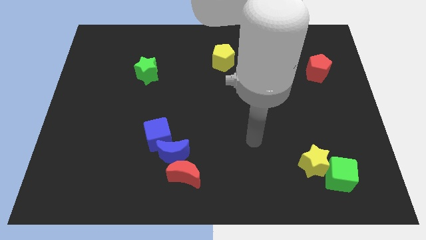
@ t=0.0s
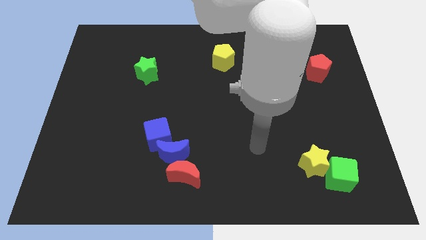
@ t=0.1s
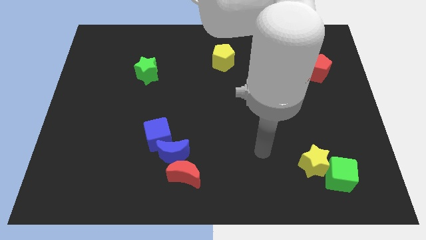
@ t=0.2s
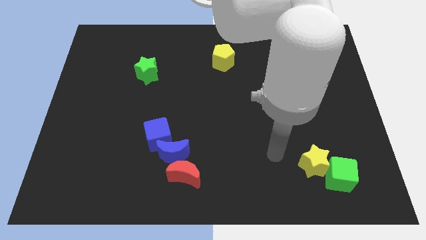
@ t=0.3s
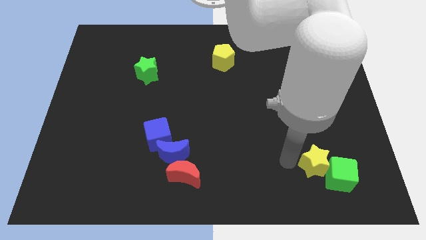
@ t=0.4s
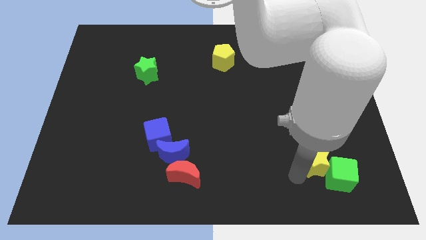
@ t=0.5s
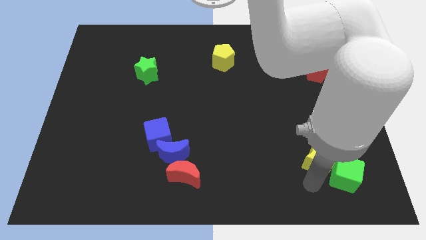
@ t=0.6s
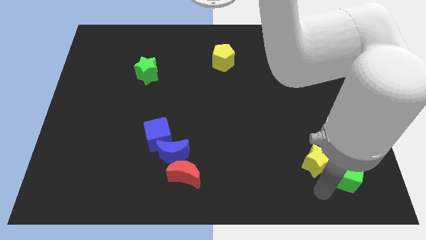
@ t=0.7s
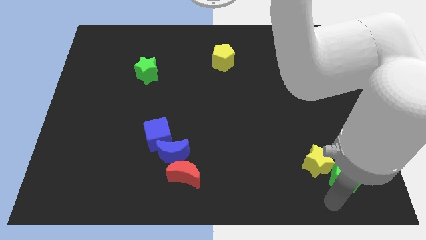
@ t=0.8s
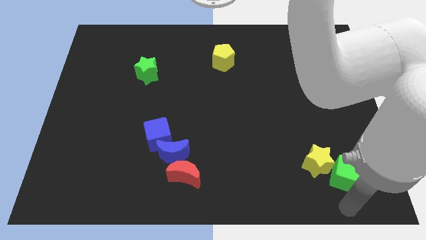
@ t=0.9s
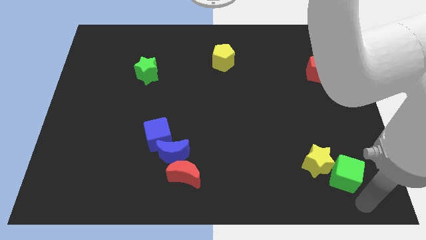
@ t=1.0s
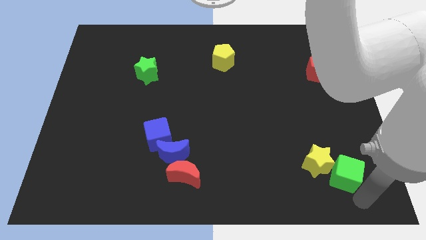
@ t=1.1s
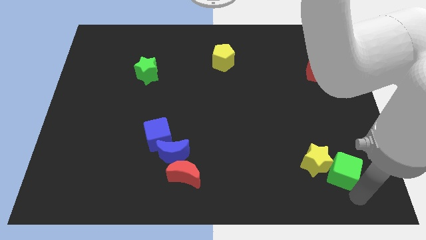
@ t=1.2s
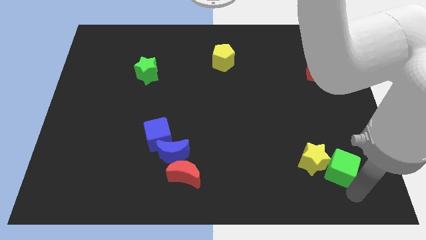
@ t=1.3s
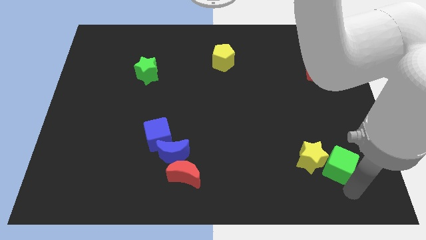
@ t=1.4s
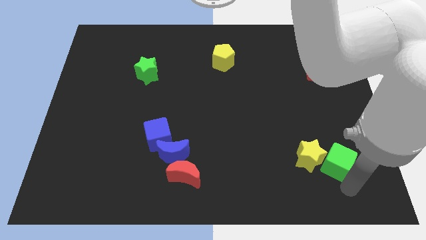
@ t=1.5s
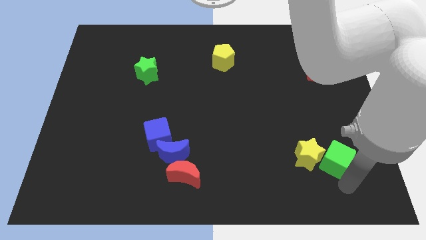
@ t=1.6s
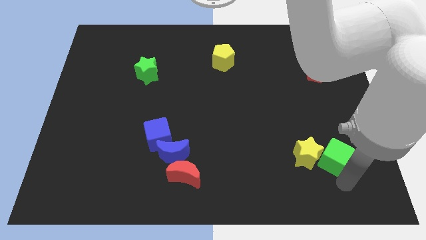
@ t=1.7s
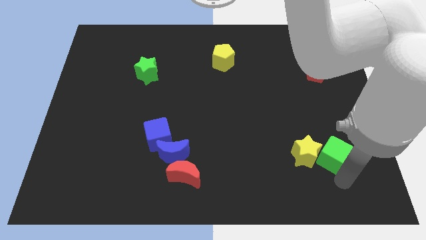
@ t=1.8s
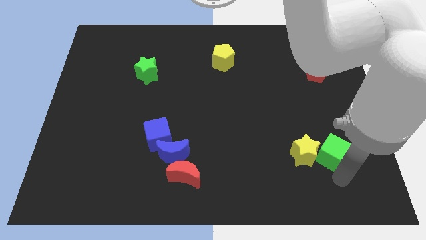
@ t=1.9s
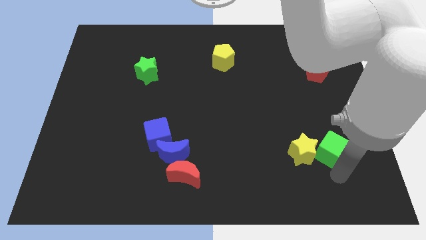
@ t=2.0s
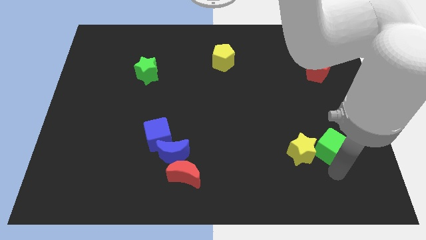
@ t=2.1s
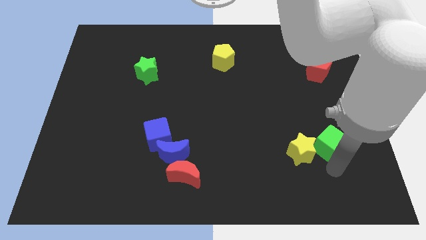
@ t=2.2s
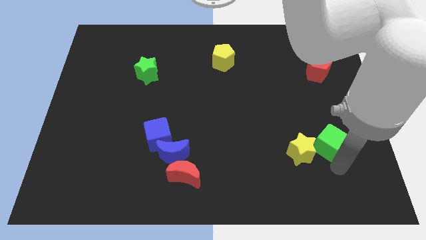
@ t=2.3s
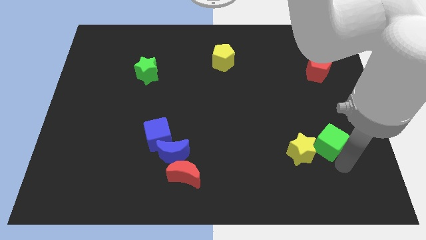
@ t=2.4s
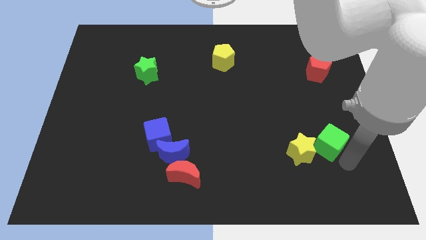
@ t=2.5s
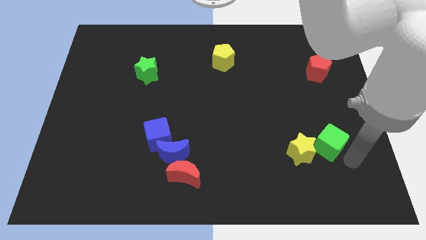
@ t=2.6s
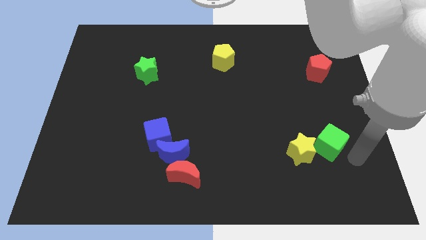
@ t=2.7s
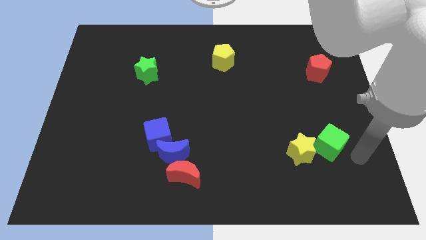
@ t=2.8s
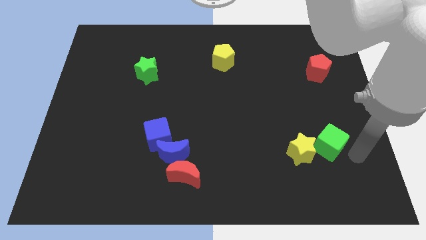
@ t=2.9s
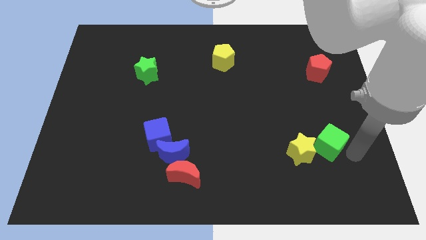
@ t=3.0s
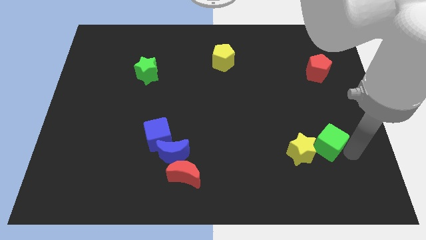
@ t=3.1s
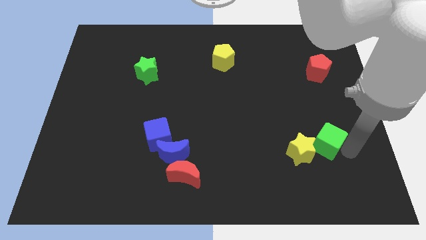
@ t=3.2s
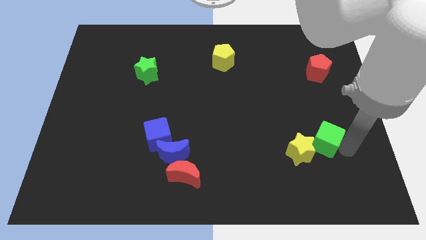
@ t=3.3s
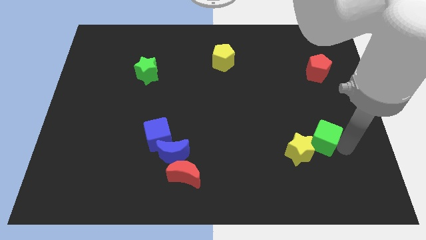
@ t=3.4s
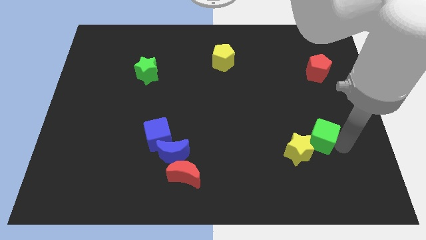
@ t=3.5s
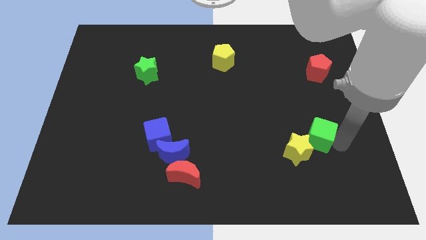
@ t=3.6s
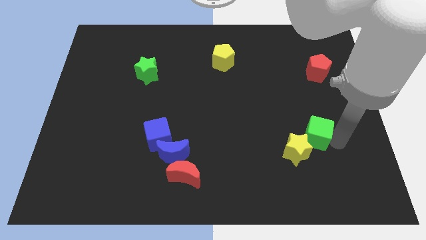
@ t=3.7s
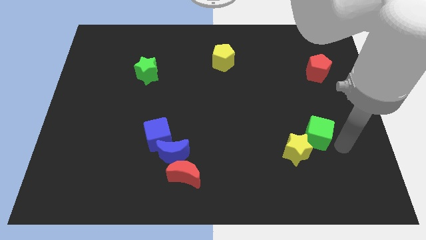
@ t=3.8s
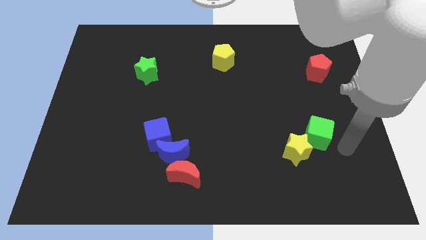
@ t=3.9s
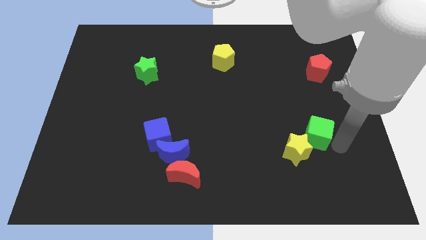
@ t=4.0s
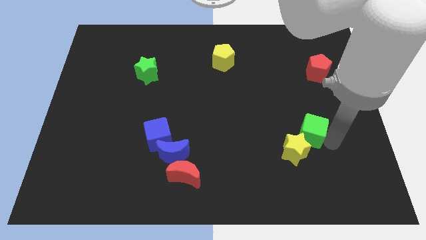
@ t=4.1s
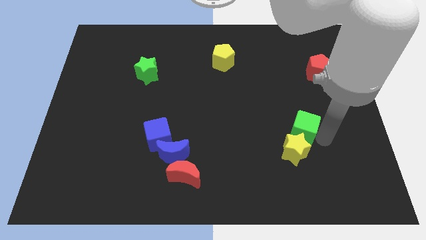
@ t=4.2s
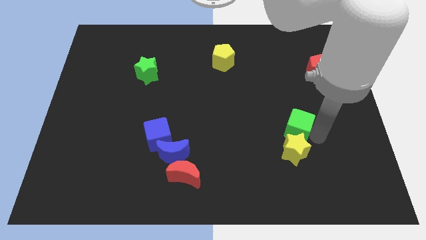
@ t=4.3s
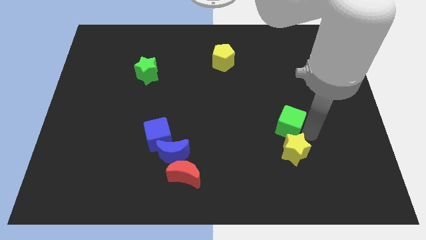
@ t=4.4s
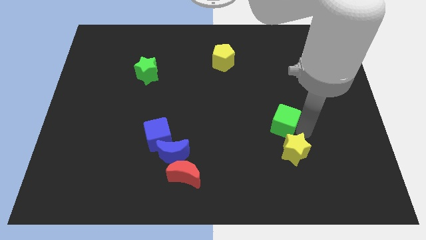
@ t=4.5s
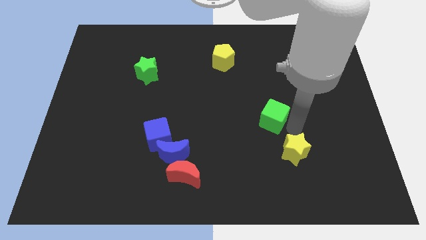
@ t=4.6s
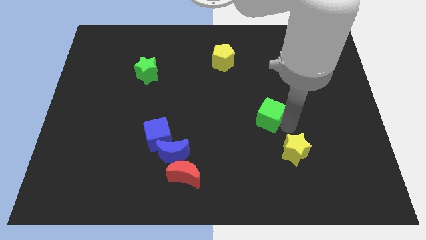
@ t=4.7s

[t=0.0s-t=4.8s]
push the green cube up and then left

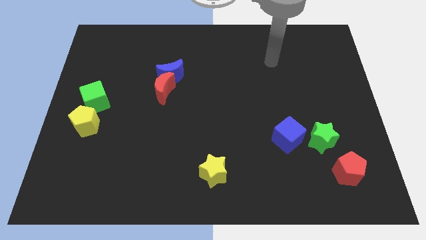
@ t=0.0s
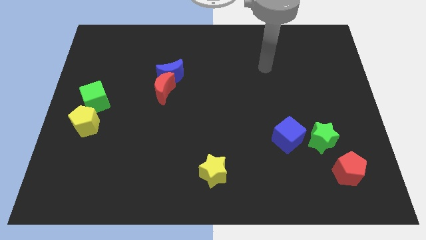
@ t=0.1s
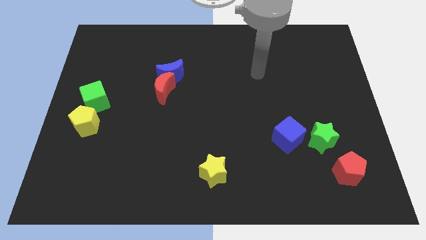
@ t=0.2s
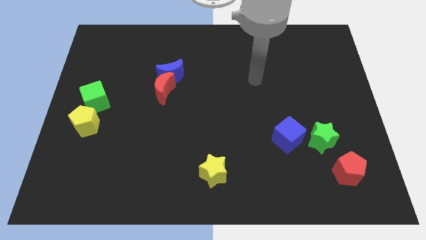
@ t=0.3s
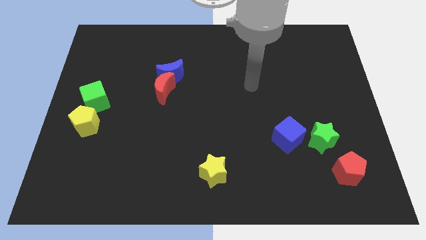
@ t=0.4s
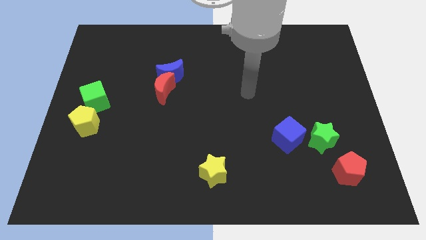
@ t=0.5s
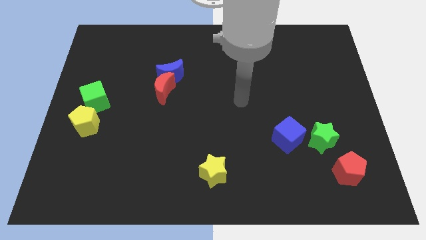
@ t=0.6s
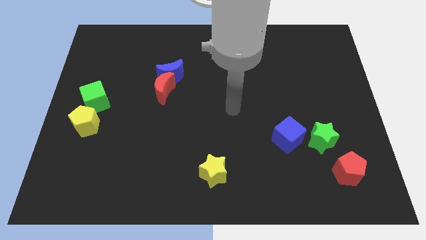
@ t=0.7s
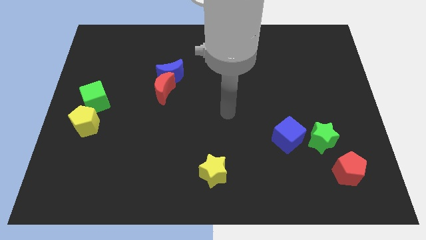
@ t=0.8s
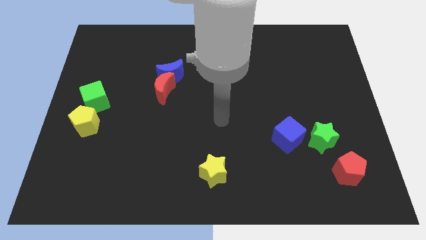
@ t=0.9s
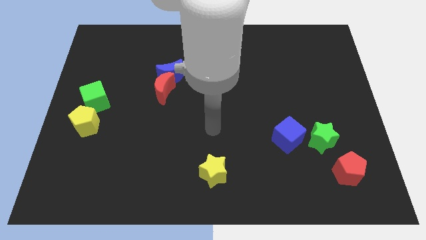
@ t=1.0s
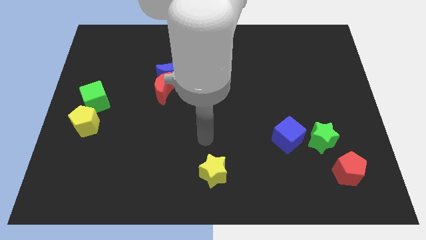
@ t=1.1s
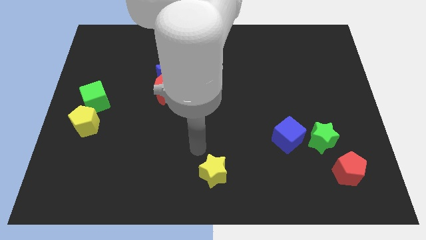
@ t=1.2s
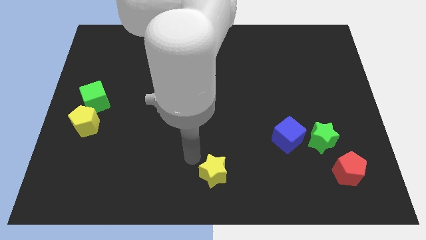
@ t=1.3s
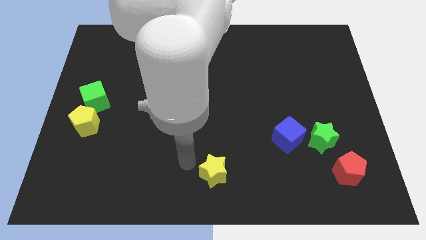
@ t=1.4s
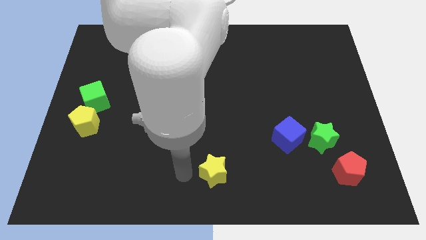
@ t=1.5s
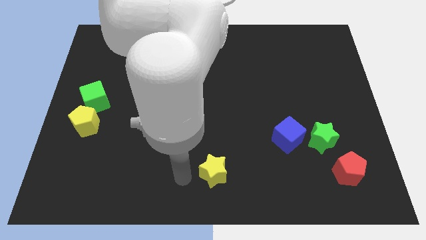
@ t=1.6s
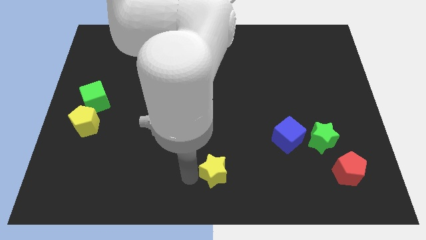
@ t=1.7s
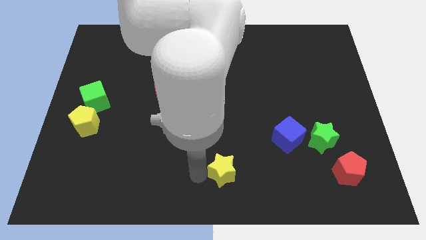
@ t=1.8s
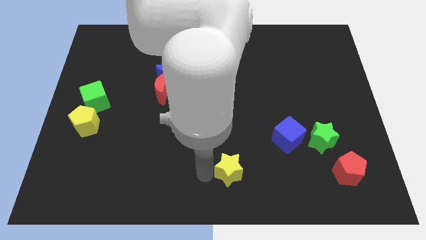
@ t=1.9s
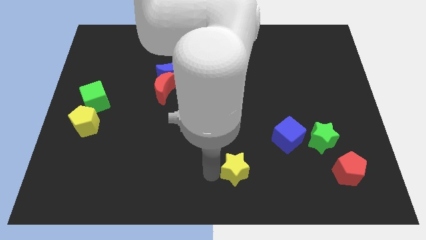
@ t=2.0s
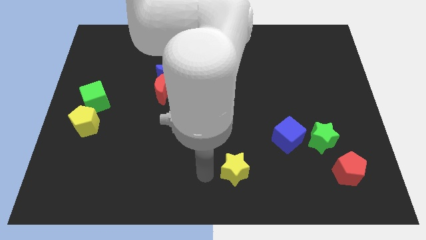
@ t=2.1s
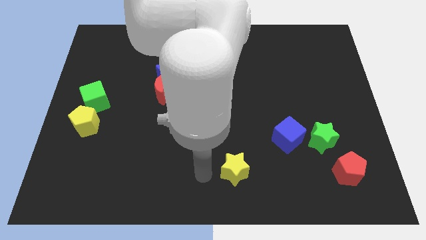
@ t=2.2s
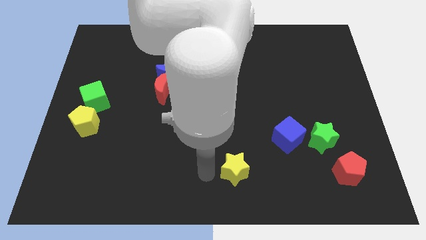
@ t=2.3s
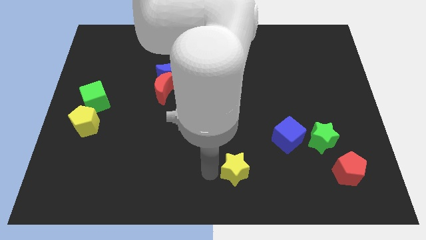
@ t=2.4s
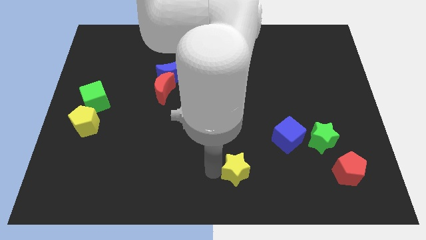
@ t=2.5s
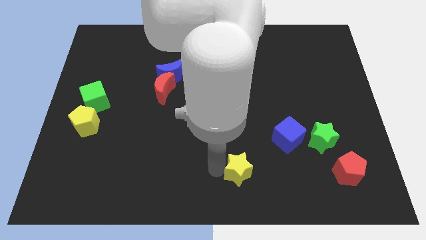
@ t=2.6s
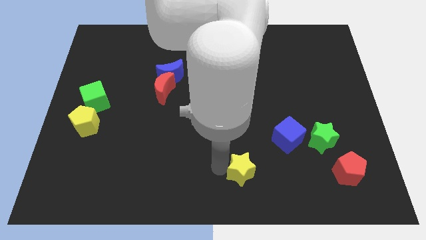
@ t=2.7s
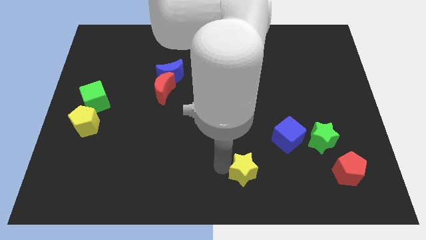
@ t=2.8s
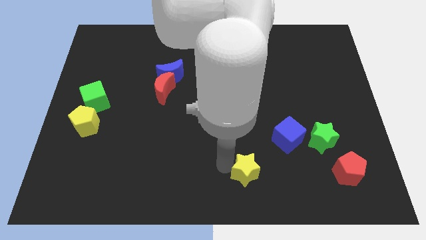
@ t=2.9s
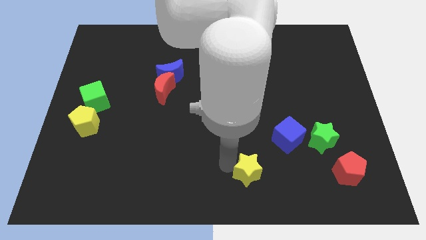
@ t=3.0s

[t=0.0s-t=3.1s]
slightly slide the yellow star to the right
